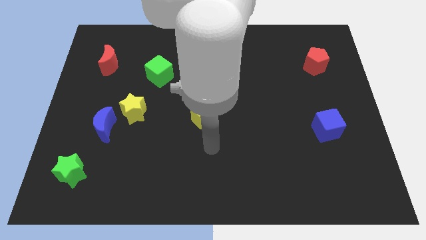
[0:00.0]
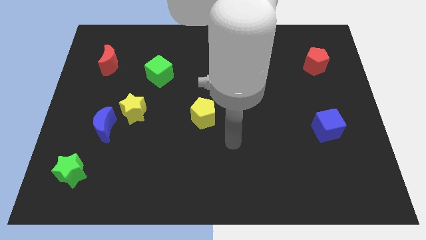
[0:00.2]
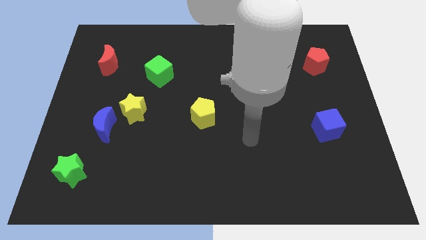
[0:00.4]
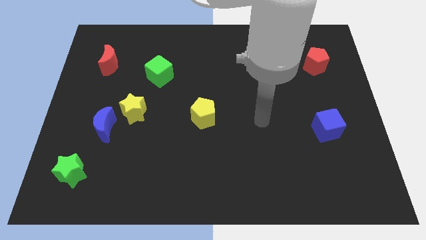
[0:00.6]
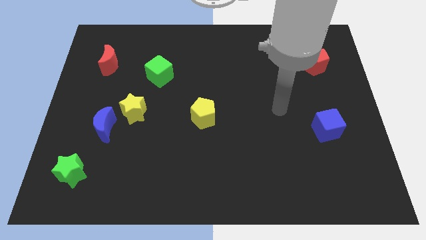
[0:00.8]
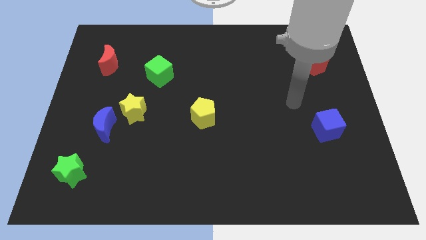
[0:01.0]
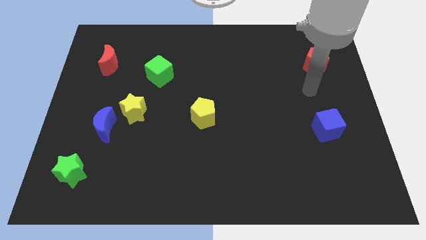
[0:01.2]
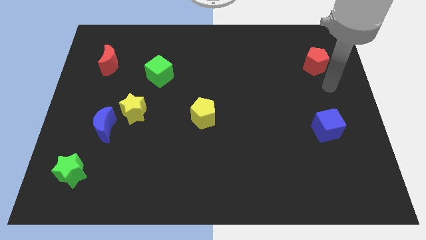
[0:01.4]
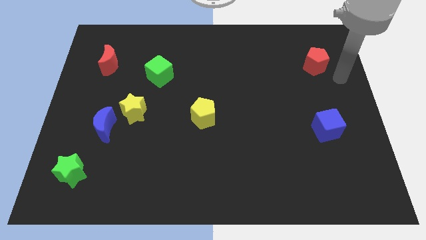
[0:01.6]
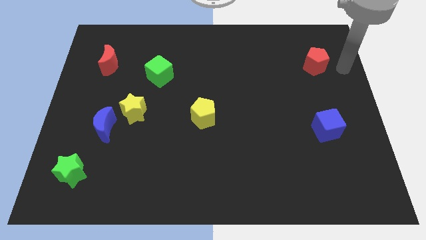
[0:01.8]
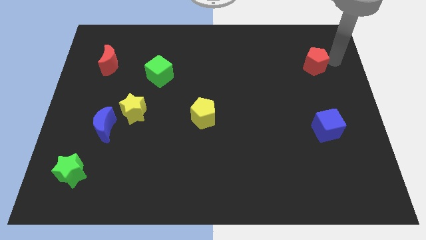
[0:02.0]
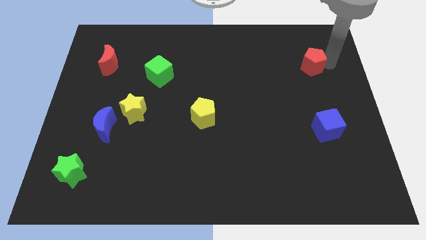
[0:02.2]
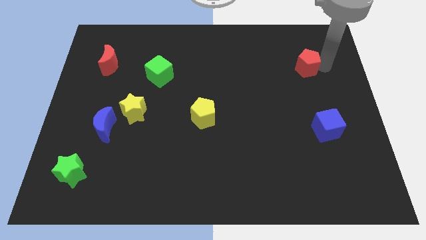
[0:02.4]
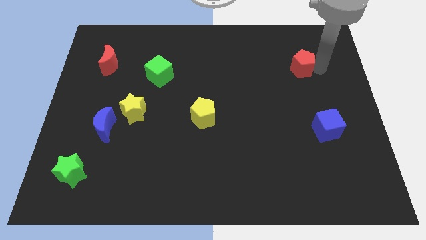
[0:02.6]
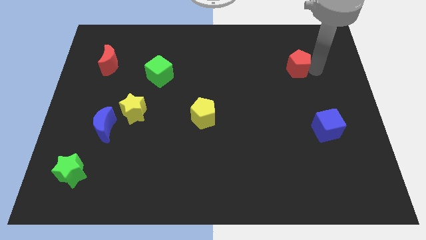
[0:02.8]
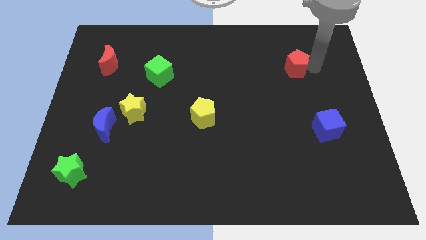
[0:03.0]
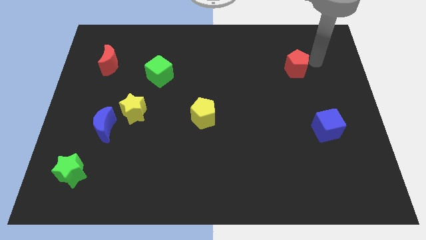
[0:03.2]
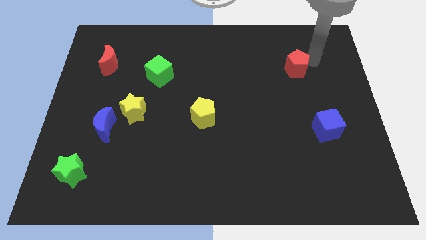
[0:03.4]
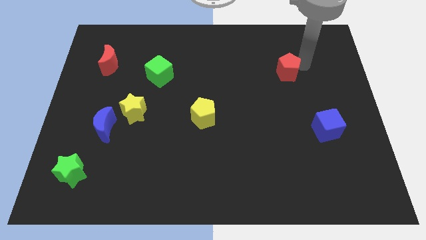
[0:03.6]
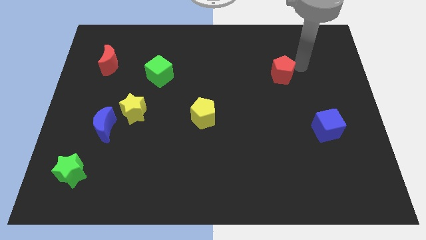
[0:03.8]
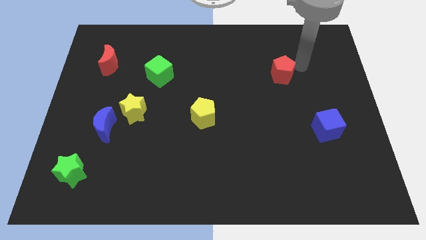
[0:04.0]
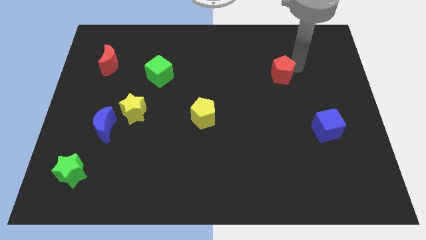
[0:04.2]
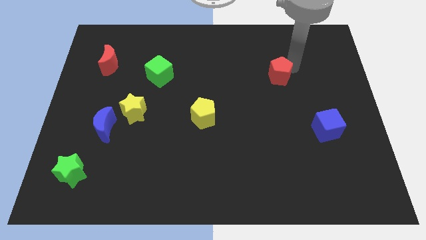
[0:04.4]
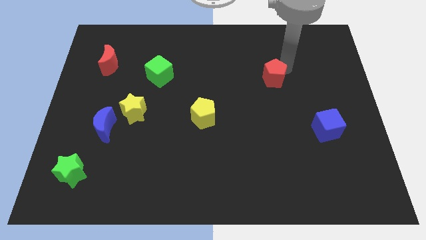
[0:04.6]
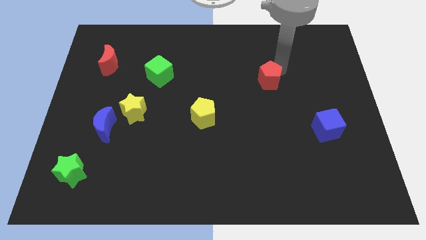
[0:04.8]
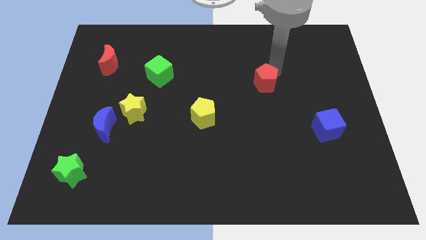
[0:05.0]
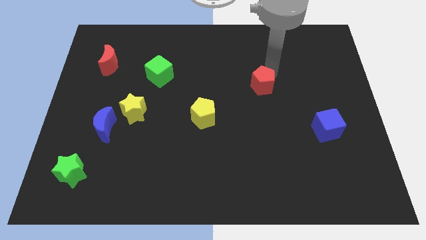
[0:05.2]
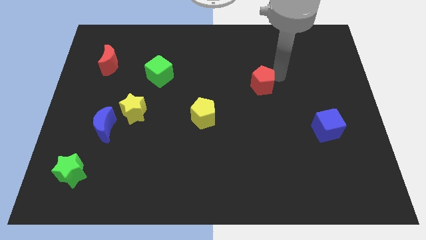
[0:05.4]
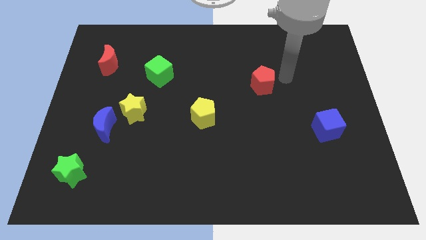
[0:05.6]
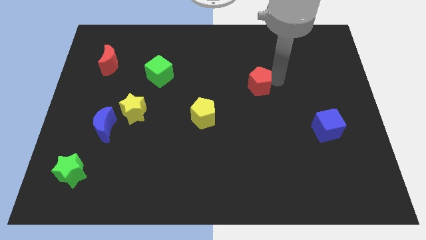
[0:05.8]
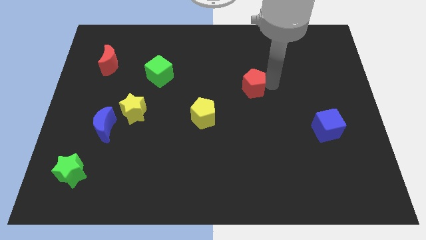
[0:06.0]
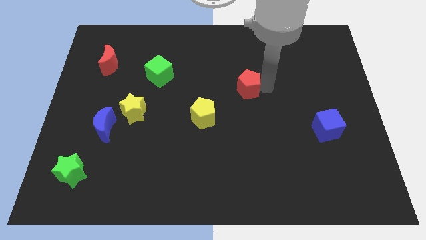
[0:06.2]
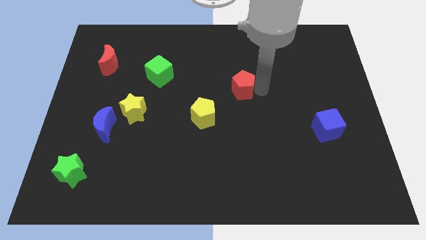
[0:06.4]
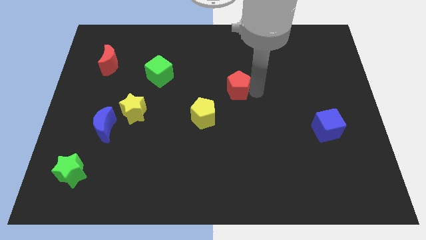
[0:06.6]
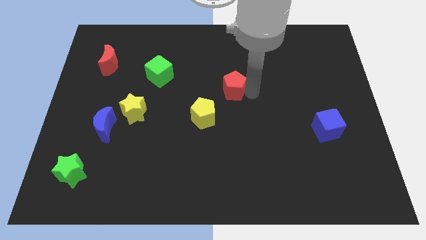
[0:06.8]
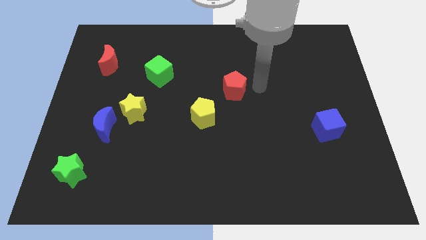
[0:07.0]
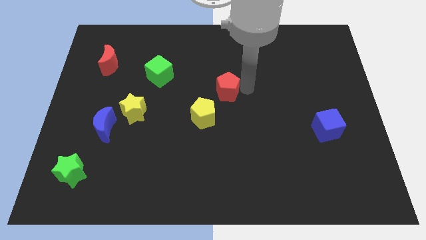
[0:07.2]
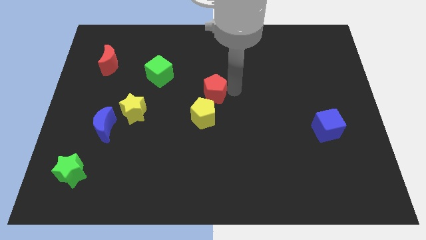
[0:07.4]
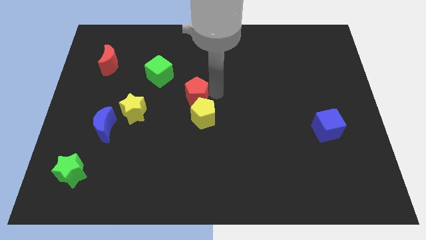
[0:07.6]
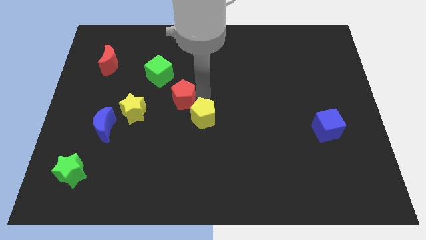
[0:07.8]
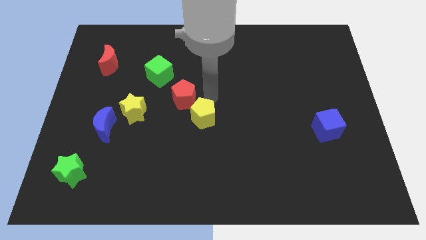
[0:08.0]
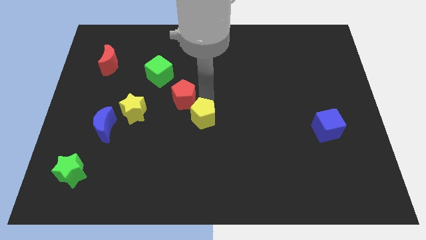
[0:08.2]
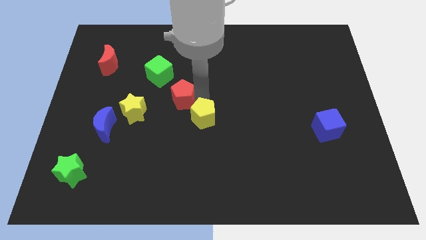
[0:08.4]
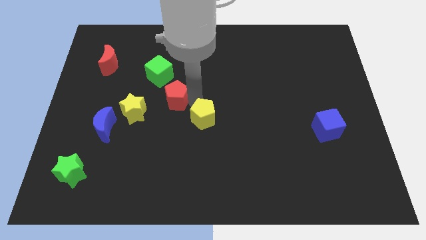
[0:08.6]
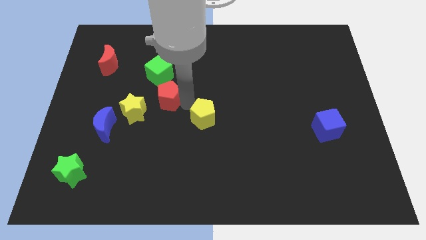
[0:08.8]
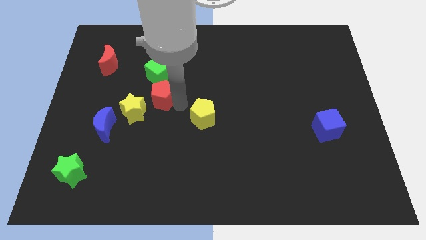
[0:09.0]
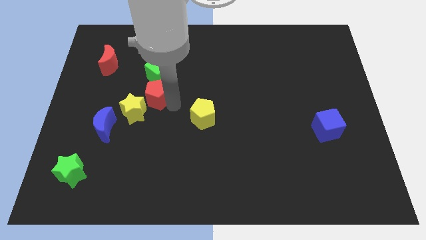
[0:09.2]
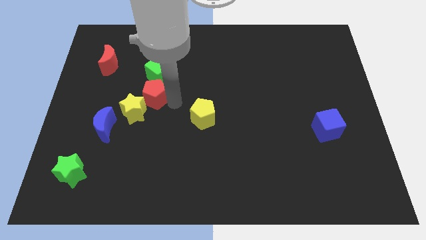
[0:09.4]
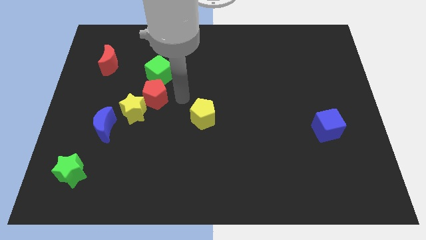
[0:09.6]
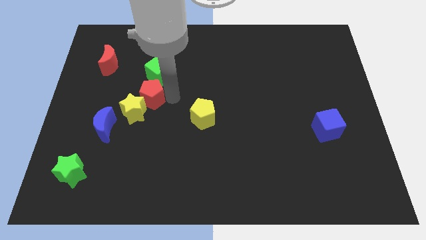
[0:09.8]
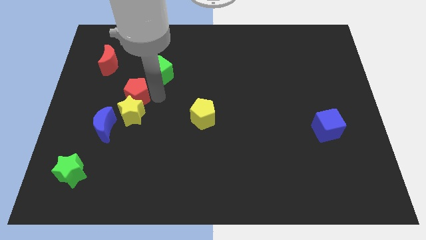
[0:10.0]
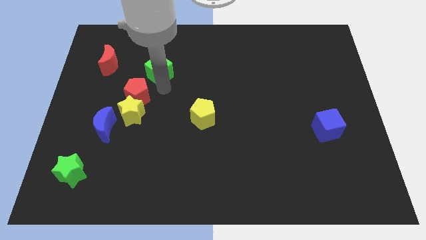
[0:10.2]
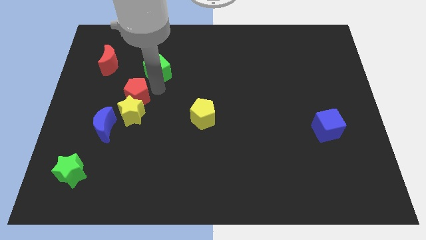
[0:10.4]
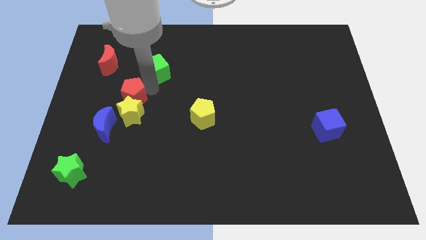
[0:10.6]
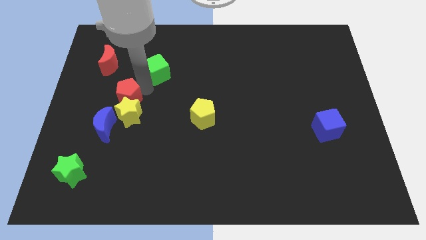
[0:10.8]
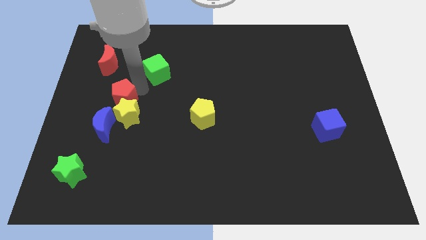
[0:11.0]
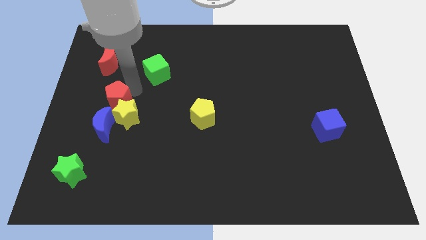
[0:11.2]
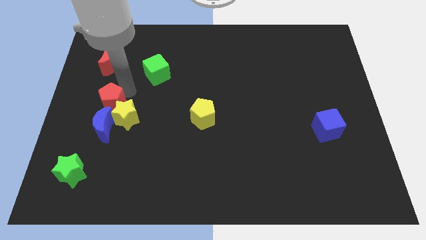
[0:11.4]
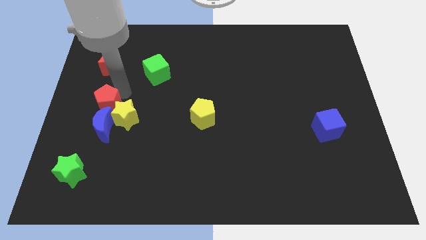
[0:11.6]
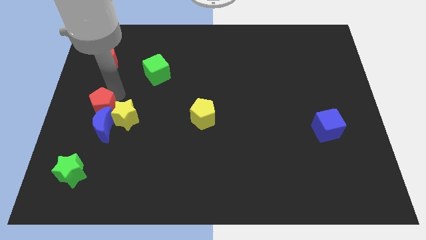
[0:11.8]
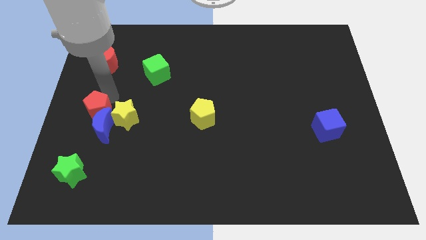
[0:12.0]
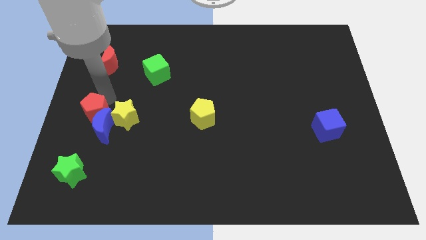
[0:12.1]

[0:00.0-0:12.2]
move the red pentagon to the top side of the green star

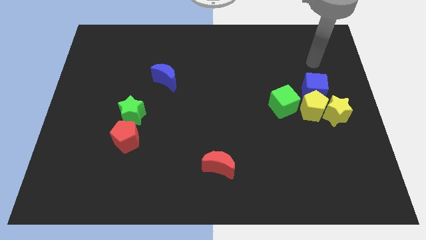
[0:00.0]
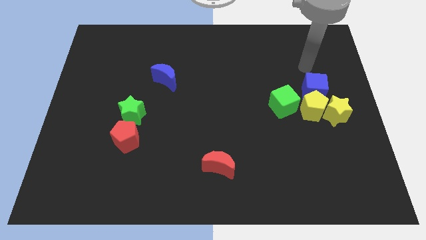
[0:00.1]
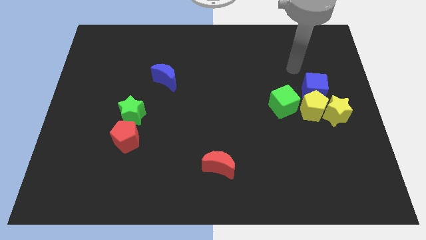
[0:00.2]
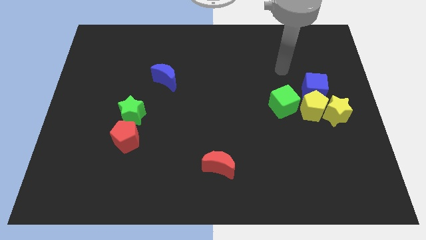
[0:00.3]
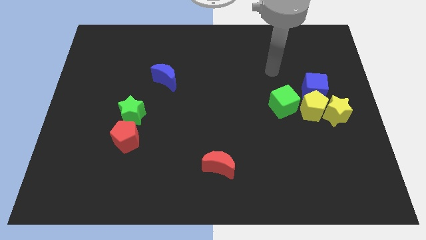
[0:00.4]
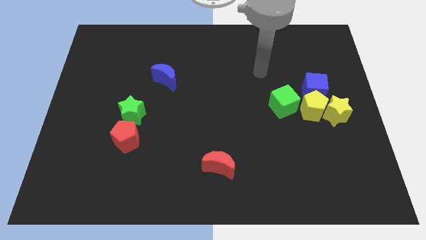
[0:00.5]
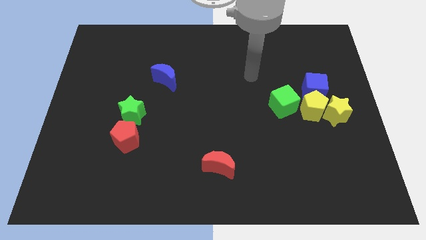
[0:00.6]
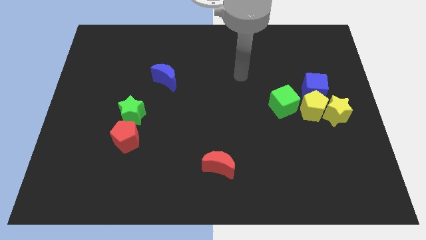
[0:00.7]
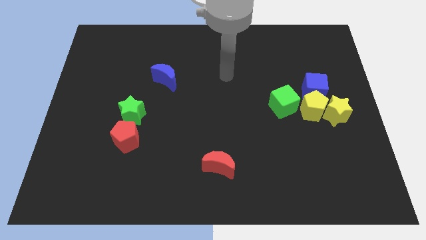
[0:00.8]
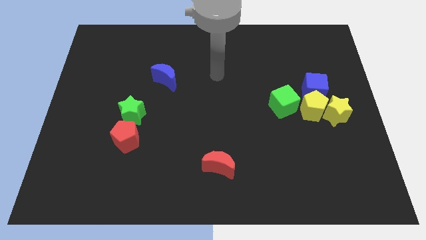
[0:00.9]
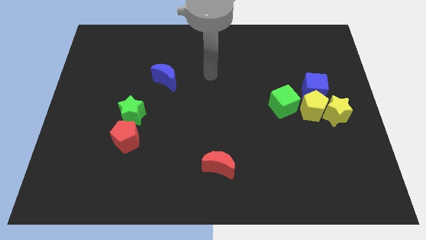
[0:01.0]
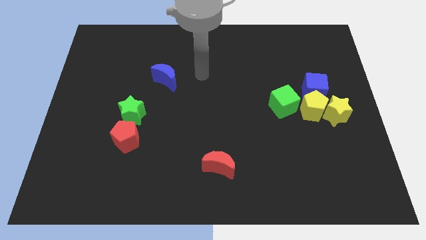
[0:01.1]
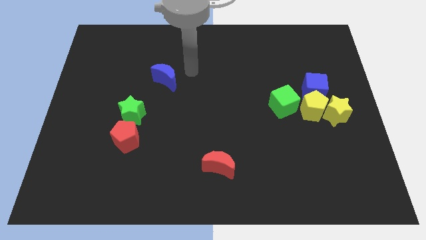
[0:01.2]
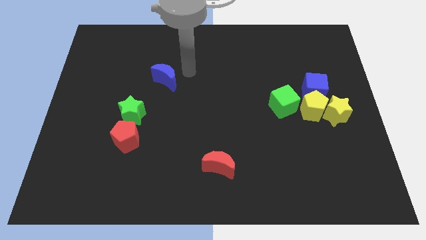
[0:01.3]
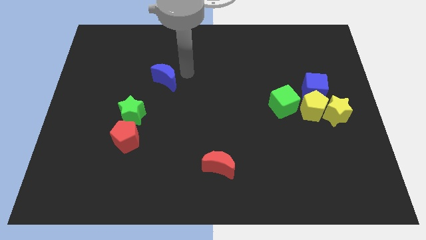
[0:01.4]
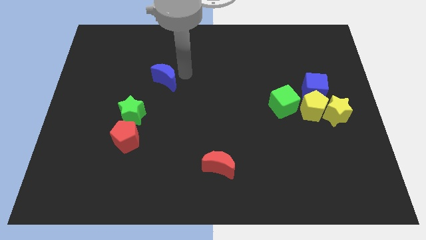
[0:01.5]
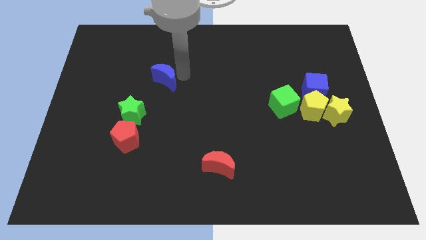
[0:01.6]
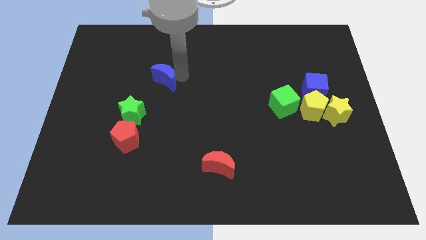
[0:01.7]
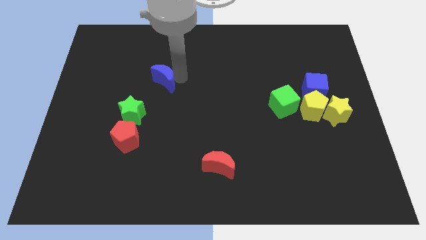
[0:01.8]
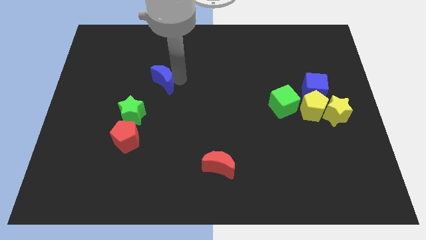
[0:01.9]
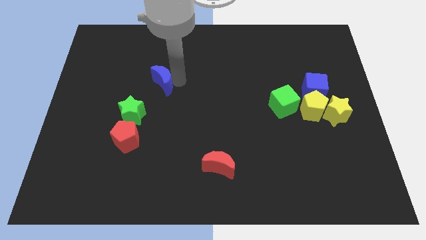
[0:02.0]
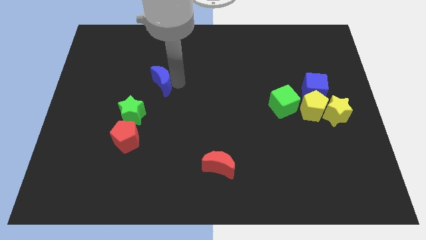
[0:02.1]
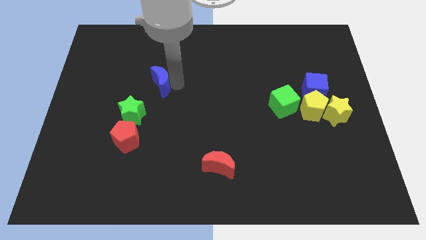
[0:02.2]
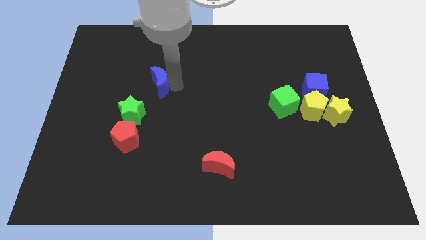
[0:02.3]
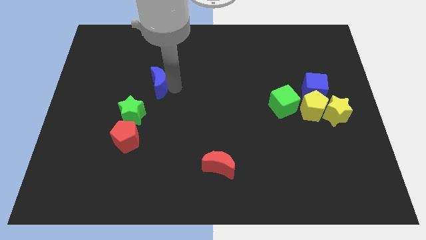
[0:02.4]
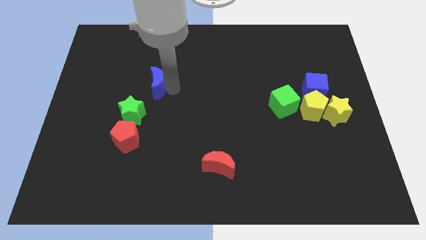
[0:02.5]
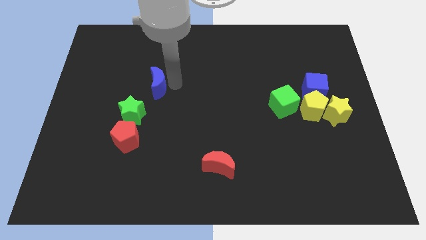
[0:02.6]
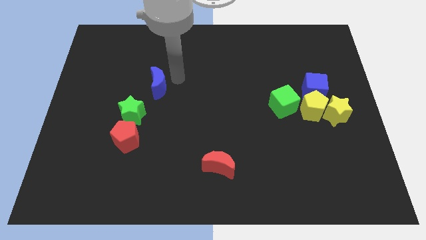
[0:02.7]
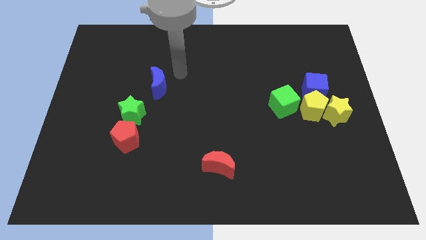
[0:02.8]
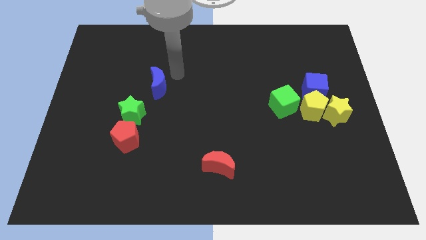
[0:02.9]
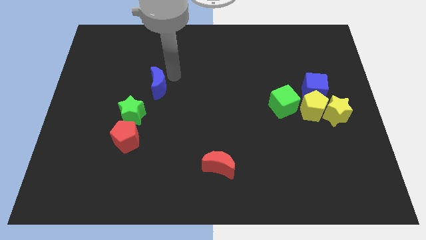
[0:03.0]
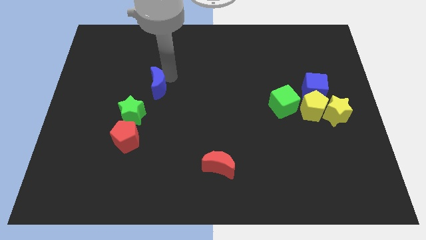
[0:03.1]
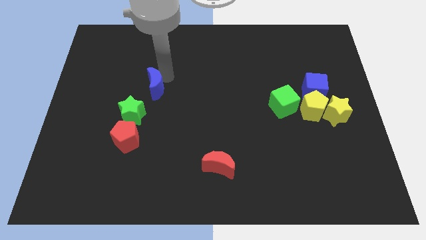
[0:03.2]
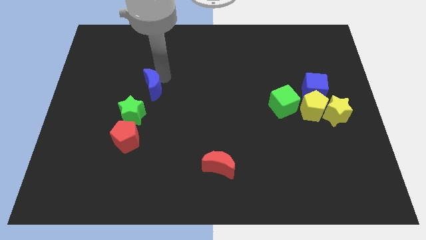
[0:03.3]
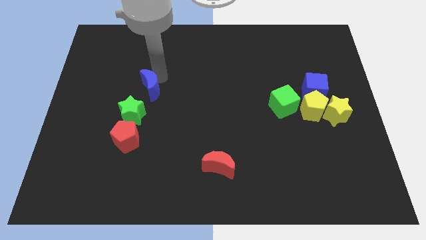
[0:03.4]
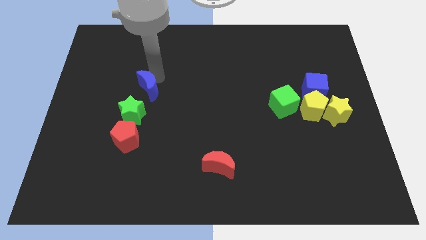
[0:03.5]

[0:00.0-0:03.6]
put the blue moon above the red pentagon
